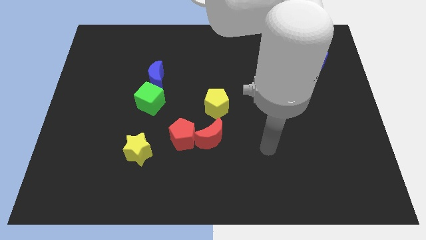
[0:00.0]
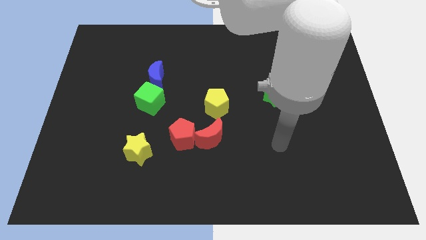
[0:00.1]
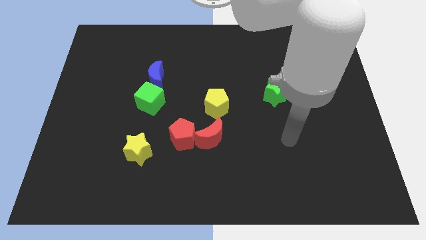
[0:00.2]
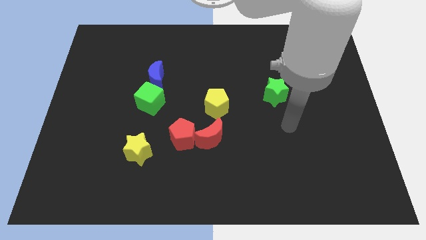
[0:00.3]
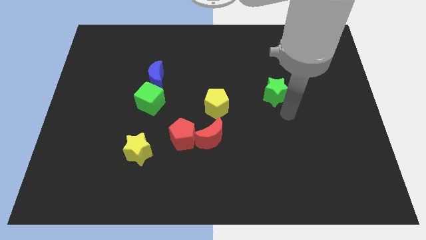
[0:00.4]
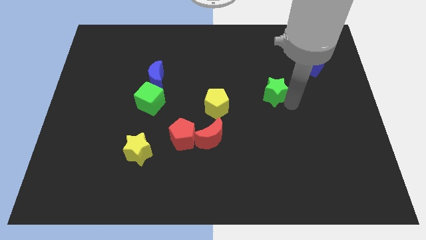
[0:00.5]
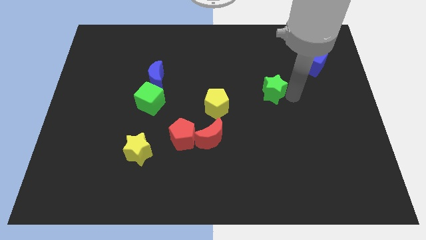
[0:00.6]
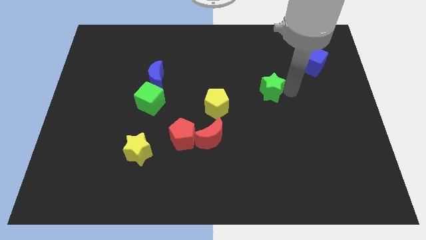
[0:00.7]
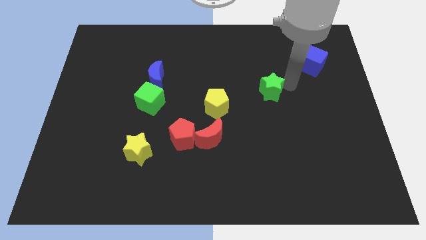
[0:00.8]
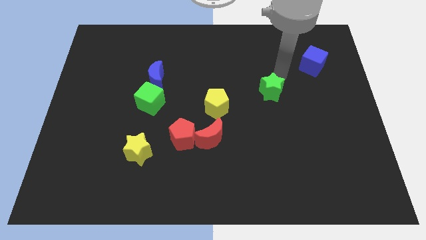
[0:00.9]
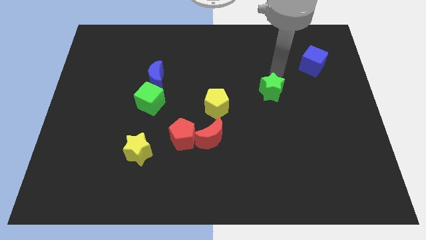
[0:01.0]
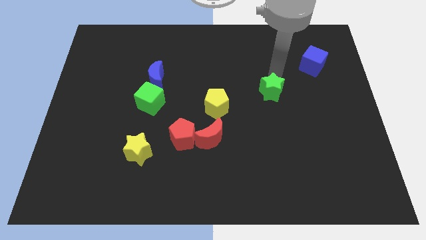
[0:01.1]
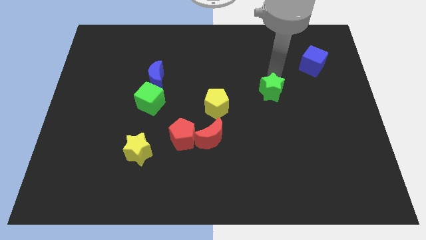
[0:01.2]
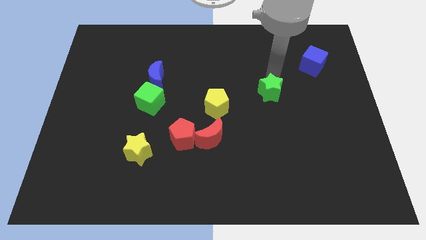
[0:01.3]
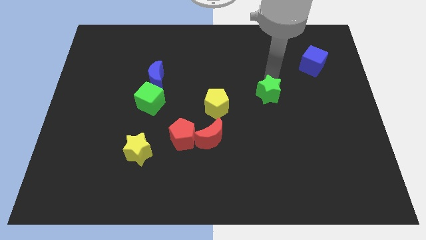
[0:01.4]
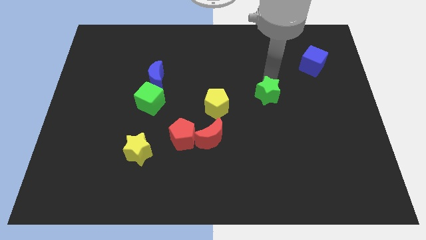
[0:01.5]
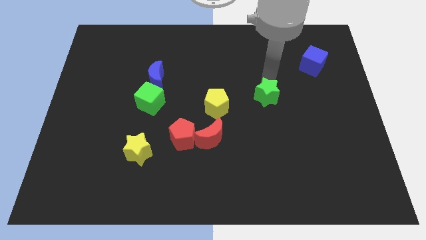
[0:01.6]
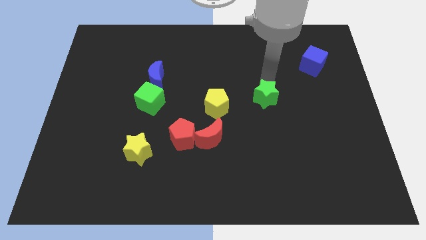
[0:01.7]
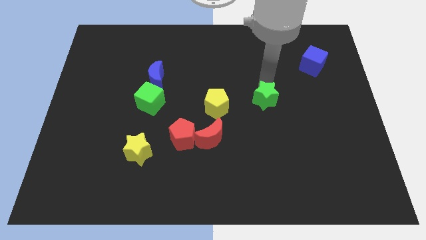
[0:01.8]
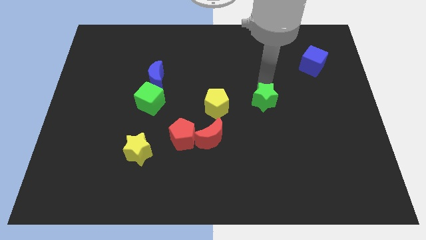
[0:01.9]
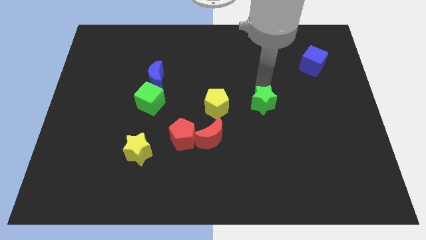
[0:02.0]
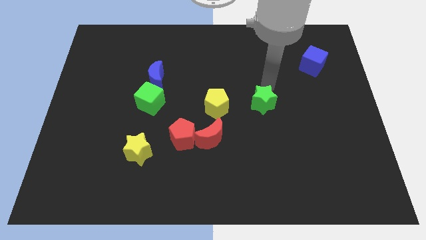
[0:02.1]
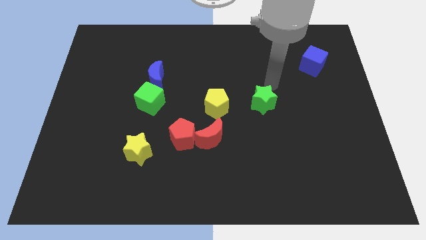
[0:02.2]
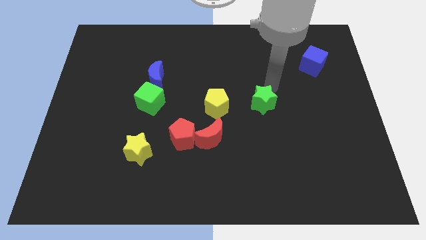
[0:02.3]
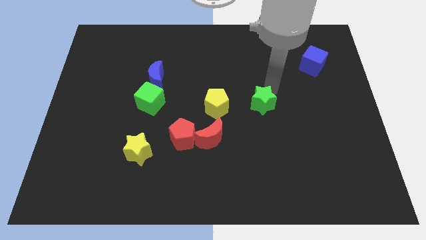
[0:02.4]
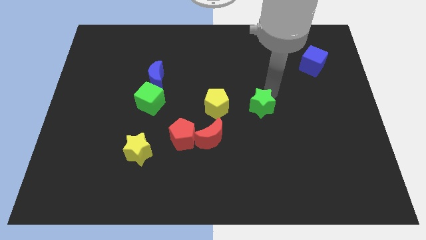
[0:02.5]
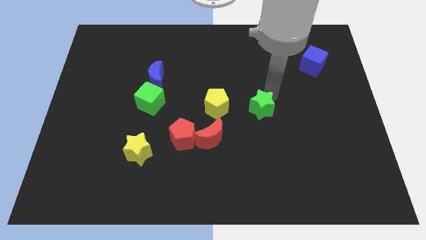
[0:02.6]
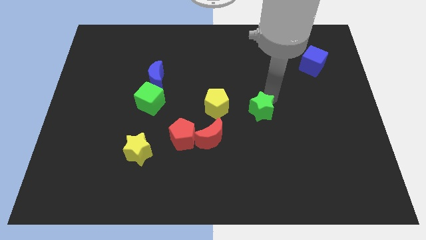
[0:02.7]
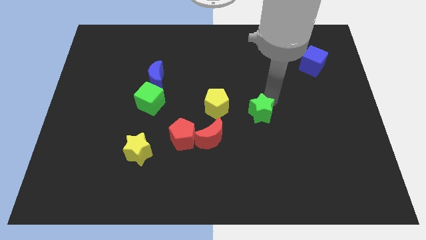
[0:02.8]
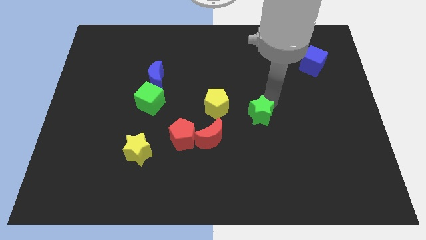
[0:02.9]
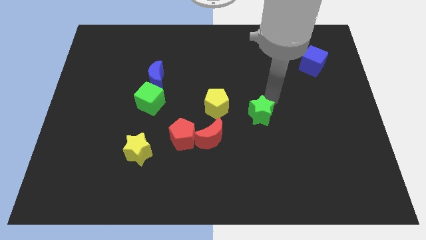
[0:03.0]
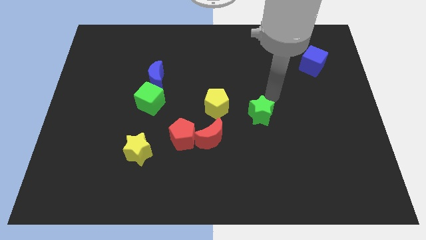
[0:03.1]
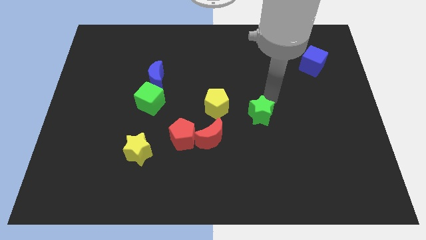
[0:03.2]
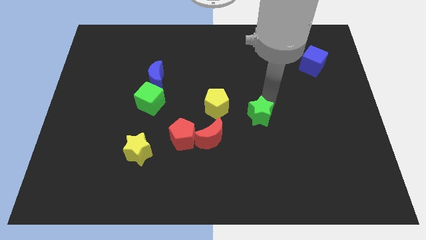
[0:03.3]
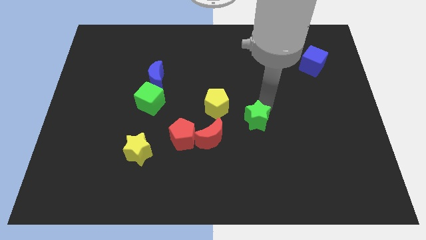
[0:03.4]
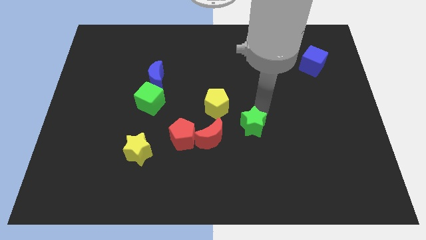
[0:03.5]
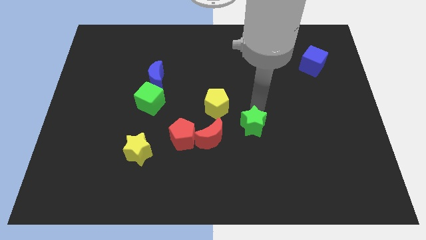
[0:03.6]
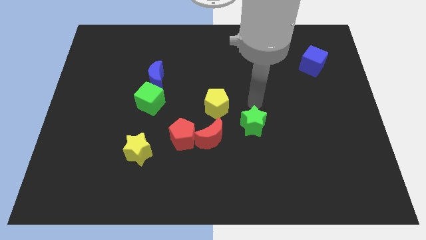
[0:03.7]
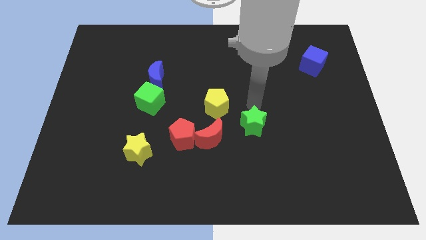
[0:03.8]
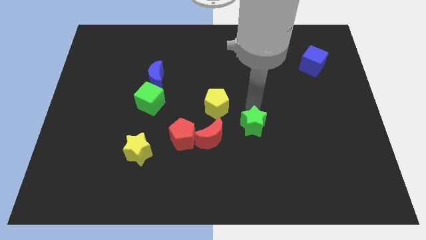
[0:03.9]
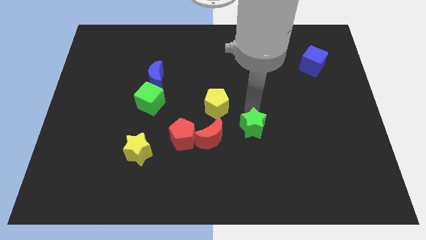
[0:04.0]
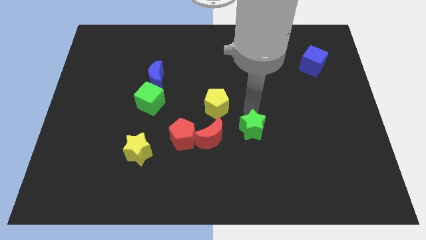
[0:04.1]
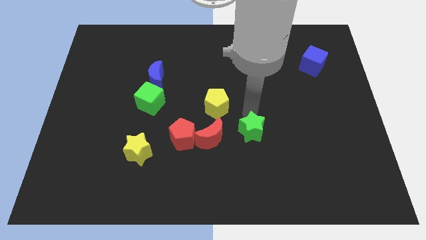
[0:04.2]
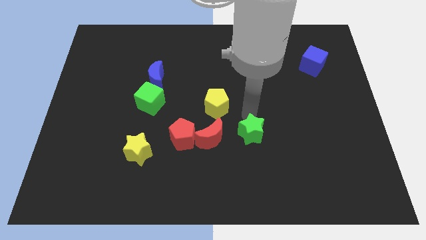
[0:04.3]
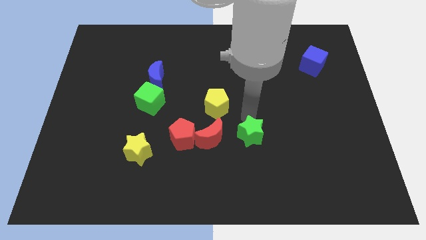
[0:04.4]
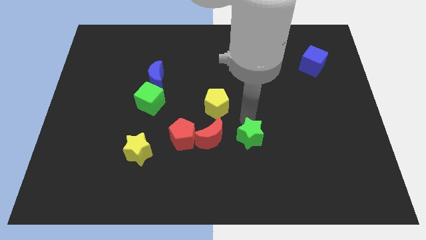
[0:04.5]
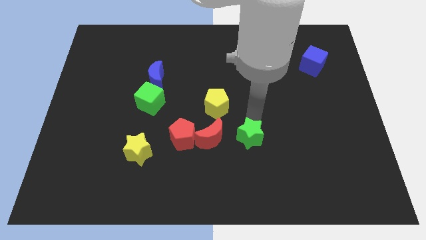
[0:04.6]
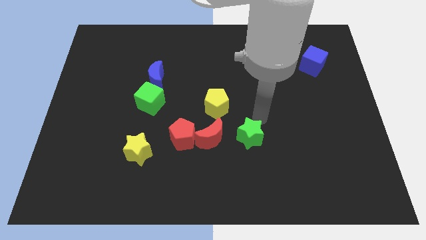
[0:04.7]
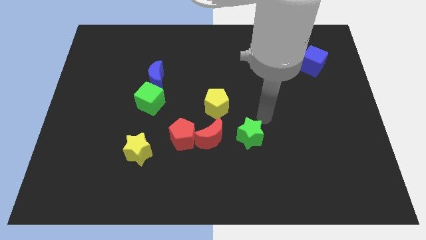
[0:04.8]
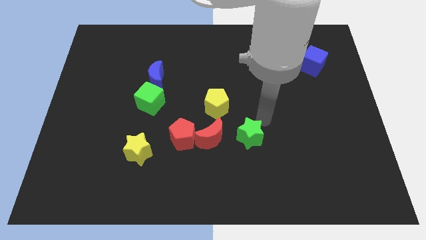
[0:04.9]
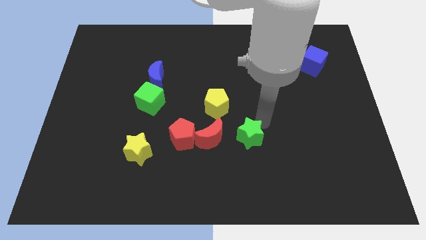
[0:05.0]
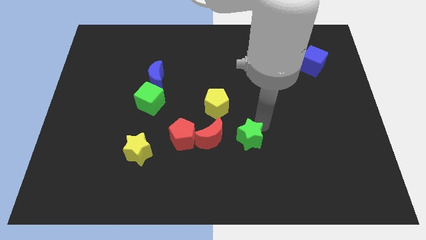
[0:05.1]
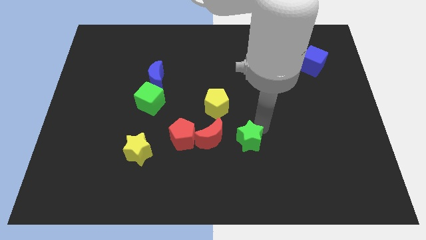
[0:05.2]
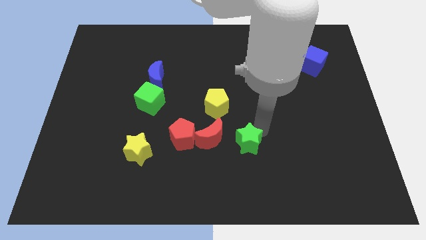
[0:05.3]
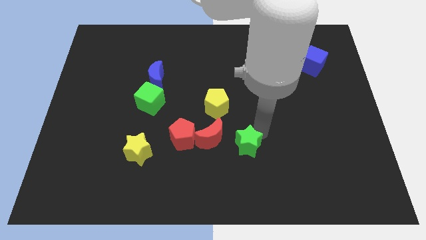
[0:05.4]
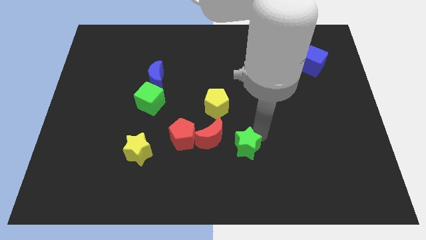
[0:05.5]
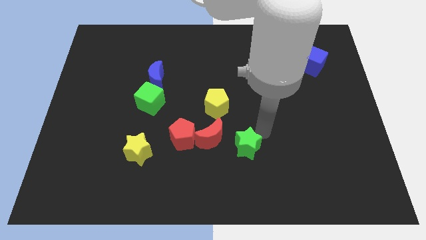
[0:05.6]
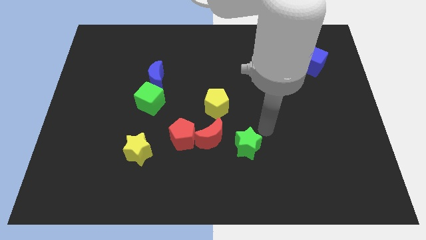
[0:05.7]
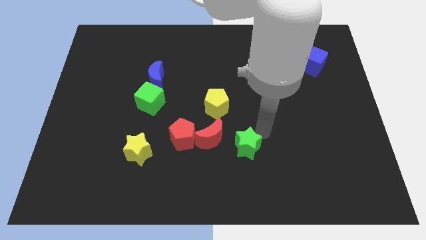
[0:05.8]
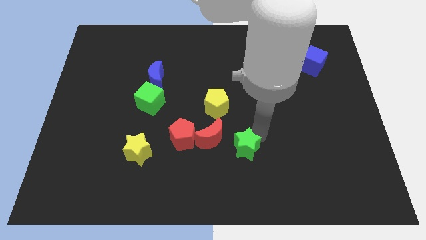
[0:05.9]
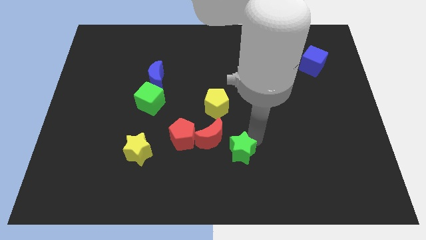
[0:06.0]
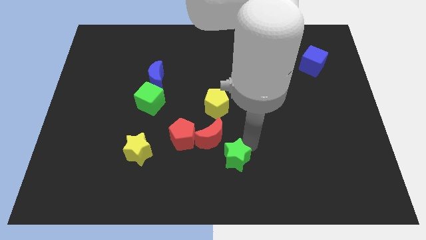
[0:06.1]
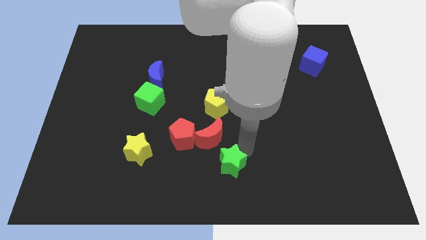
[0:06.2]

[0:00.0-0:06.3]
slide the green star down and left

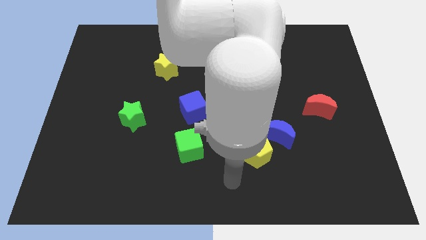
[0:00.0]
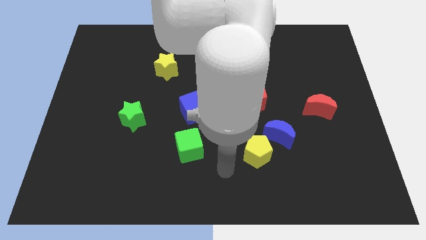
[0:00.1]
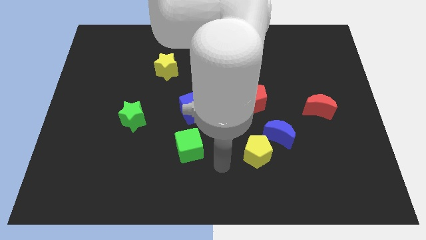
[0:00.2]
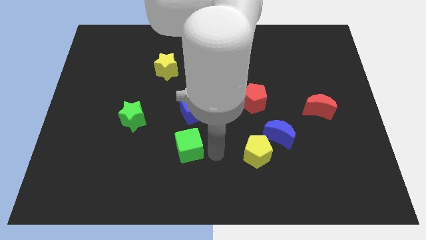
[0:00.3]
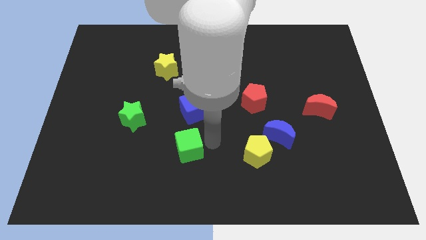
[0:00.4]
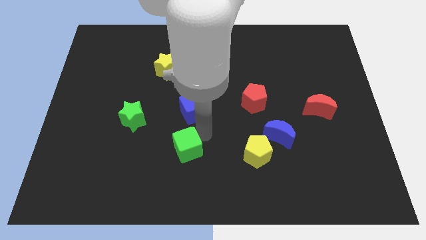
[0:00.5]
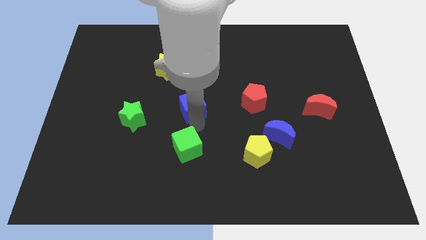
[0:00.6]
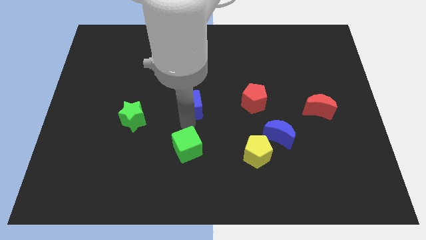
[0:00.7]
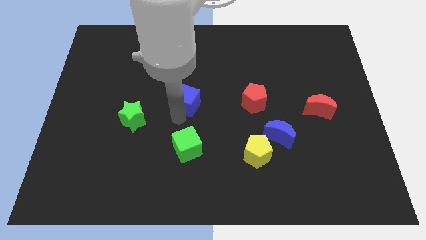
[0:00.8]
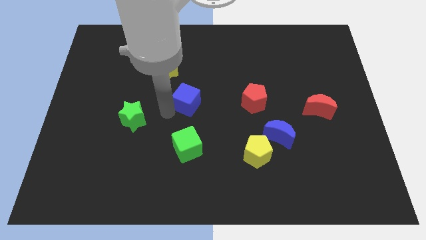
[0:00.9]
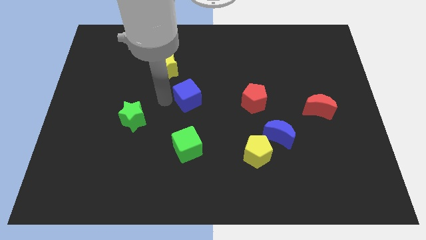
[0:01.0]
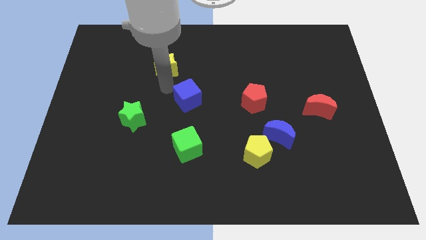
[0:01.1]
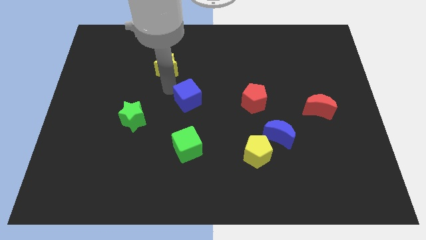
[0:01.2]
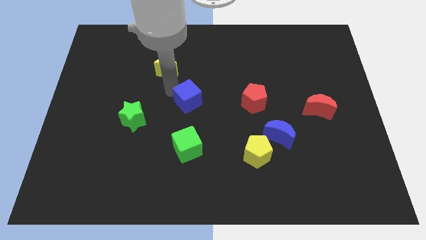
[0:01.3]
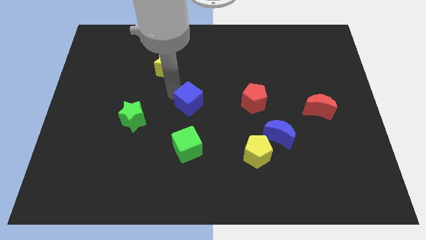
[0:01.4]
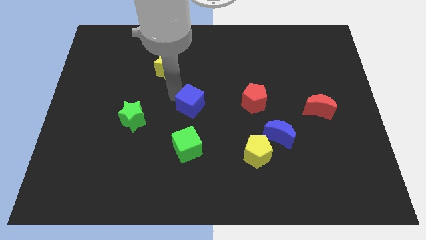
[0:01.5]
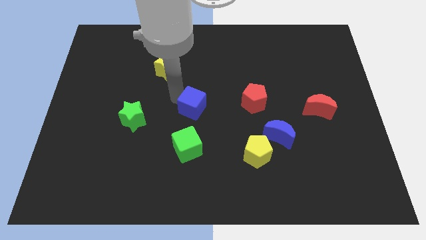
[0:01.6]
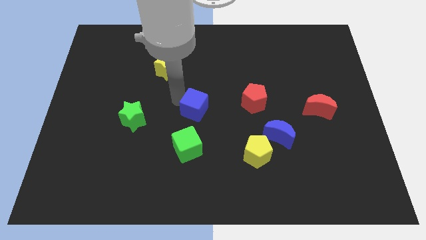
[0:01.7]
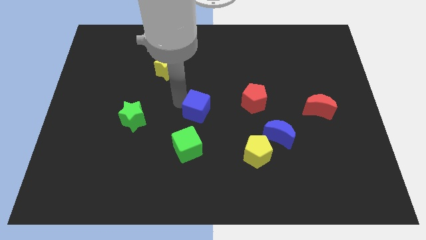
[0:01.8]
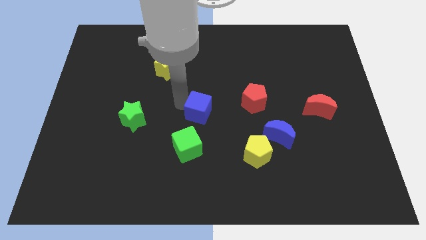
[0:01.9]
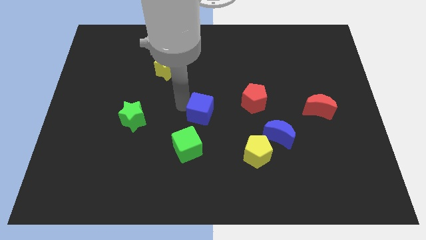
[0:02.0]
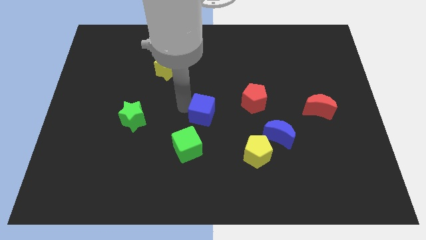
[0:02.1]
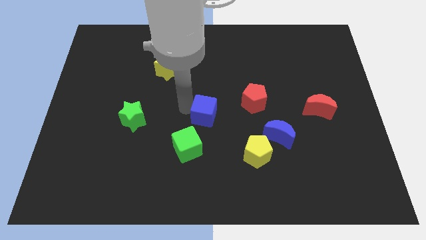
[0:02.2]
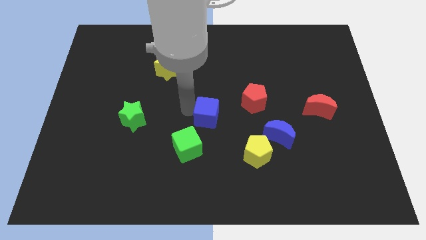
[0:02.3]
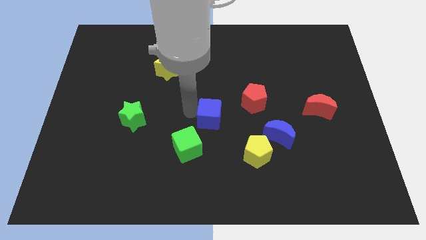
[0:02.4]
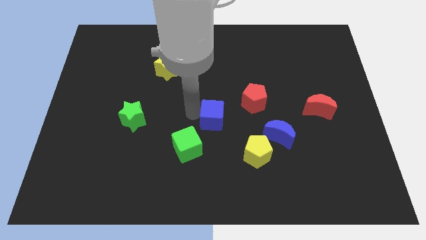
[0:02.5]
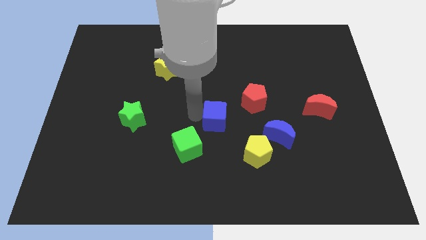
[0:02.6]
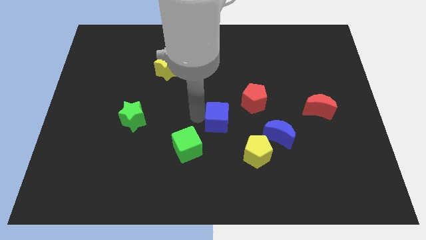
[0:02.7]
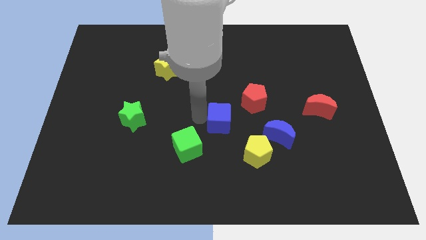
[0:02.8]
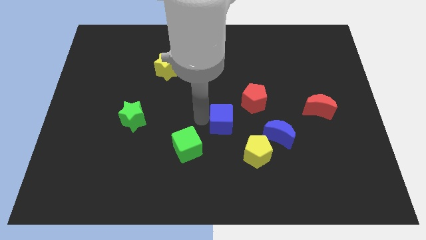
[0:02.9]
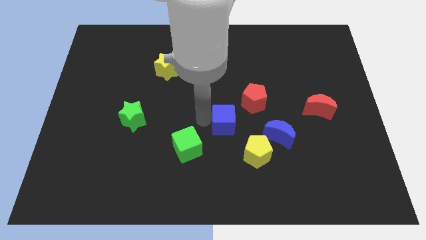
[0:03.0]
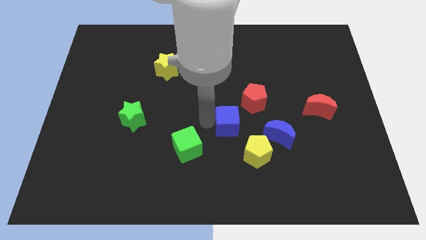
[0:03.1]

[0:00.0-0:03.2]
slide the blue cube a bit to the right
